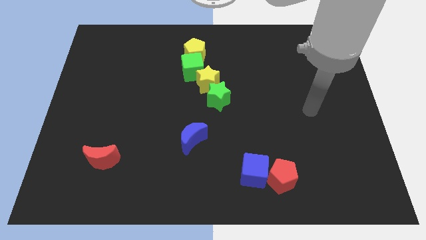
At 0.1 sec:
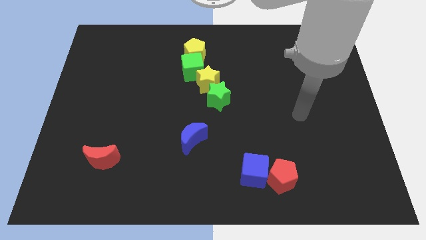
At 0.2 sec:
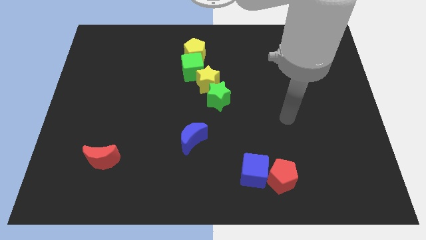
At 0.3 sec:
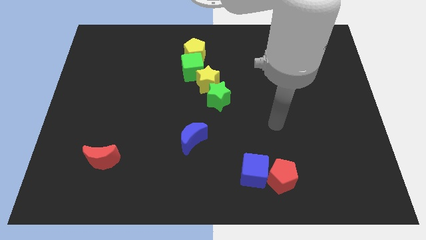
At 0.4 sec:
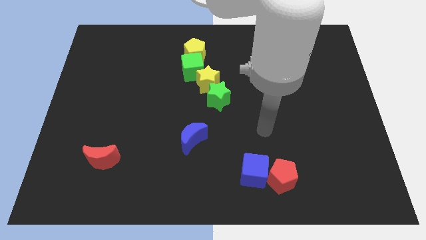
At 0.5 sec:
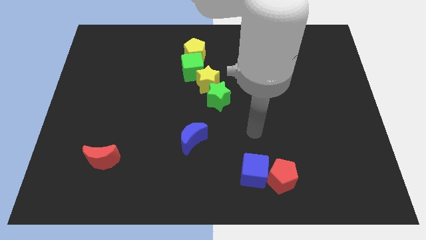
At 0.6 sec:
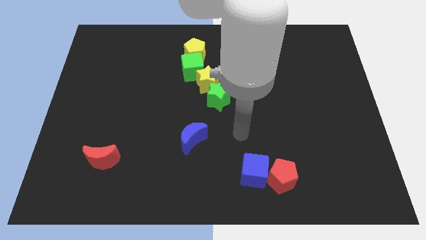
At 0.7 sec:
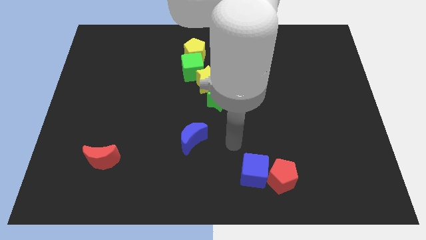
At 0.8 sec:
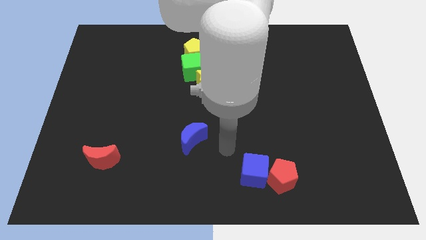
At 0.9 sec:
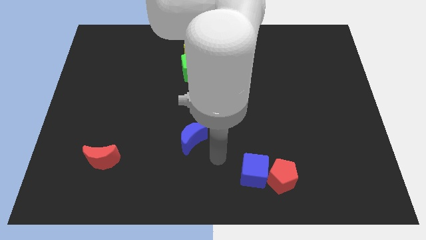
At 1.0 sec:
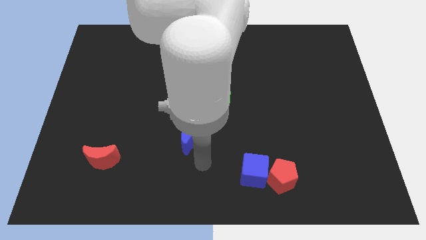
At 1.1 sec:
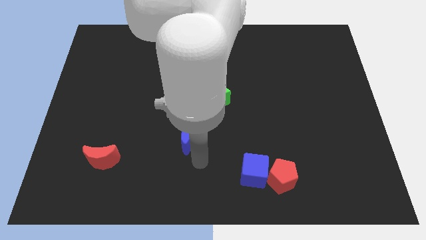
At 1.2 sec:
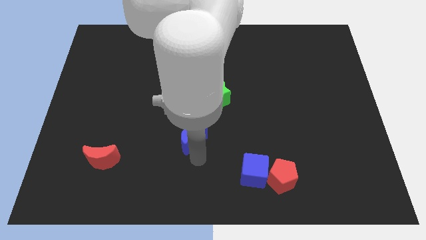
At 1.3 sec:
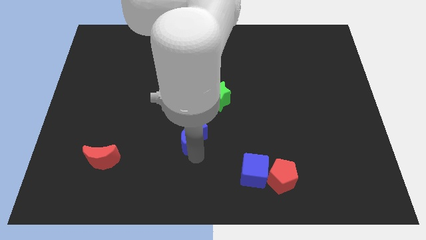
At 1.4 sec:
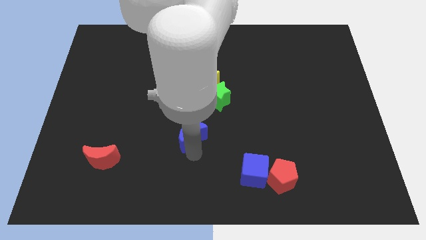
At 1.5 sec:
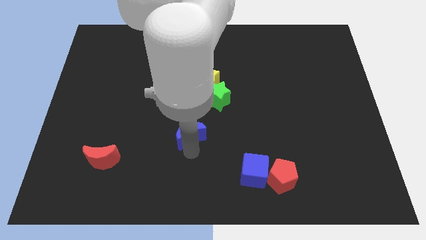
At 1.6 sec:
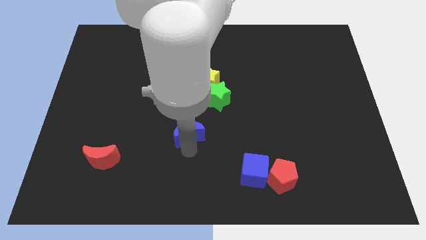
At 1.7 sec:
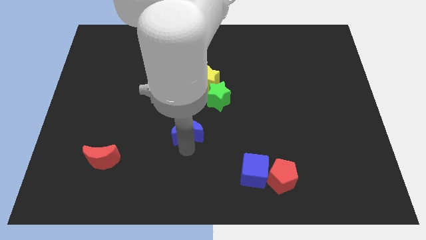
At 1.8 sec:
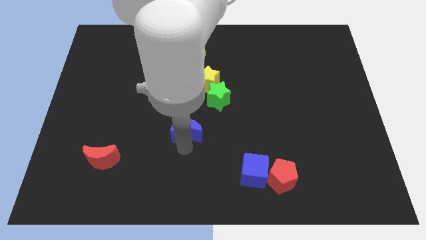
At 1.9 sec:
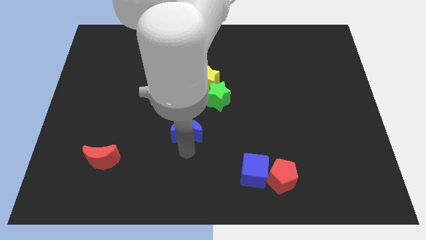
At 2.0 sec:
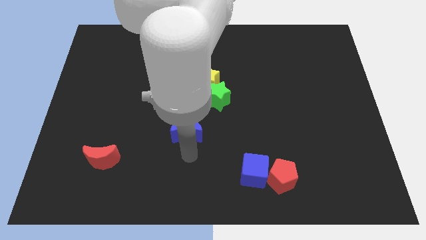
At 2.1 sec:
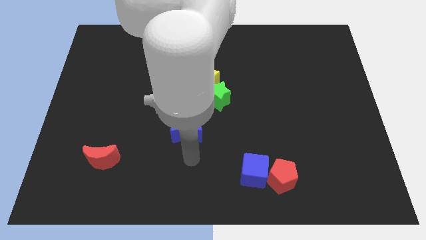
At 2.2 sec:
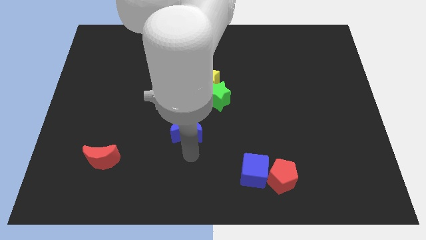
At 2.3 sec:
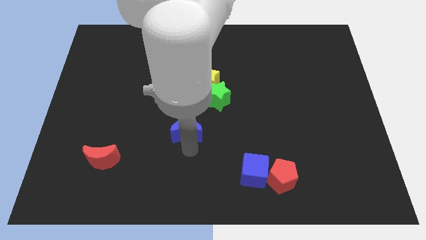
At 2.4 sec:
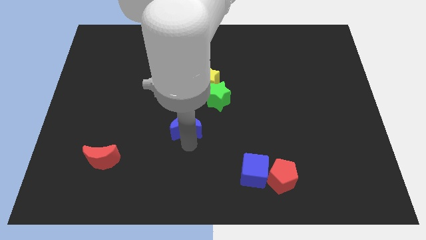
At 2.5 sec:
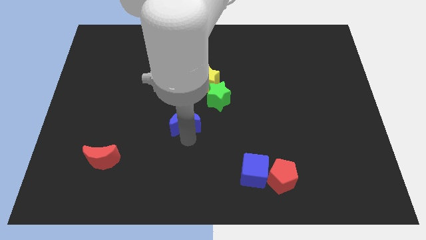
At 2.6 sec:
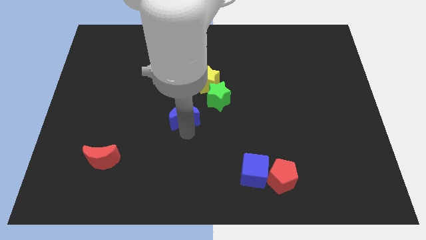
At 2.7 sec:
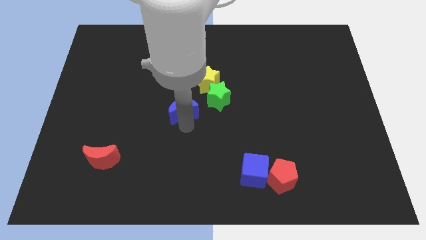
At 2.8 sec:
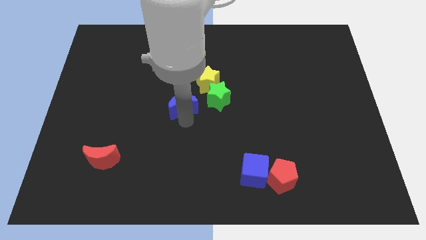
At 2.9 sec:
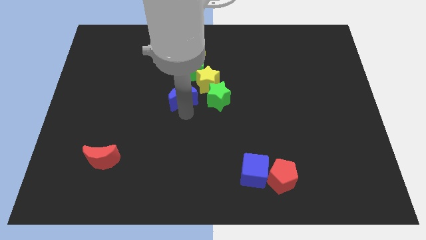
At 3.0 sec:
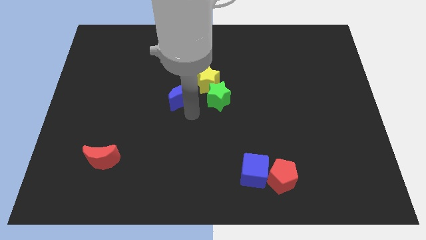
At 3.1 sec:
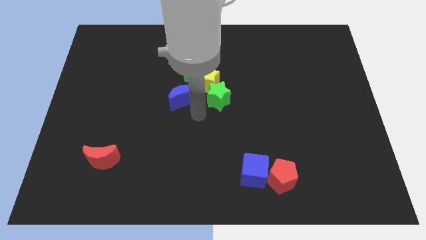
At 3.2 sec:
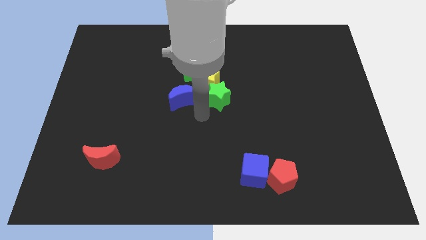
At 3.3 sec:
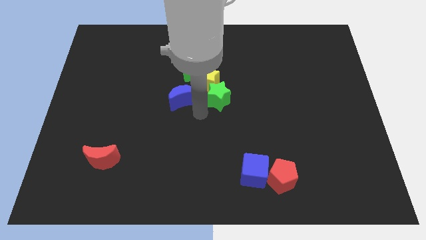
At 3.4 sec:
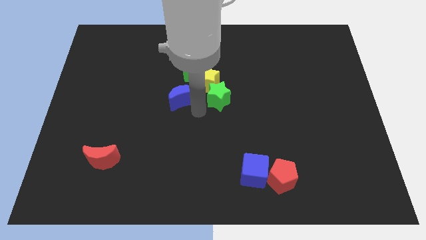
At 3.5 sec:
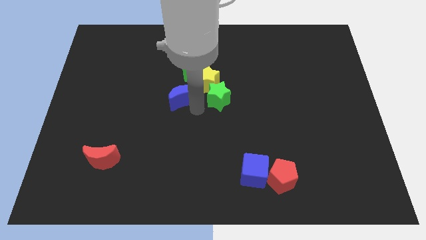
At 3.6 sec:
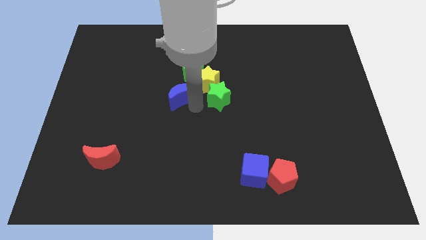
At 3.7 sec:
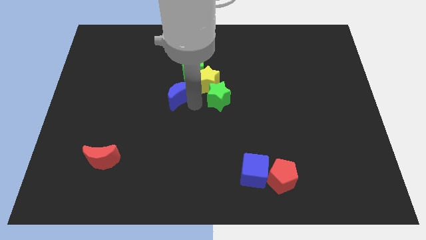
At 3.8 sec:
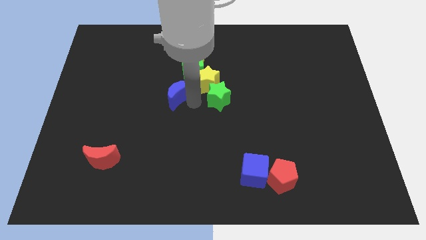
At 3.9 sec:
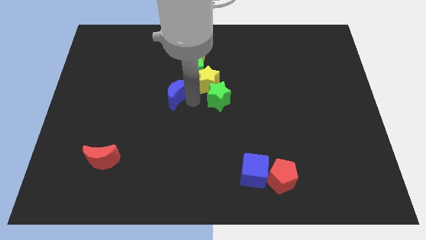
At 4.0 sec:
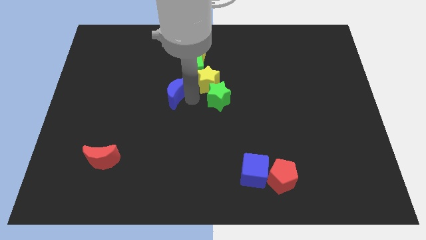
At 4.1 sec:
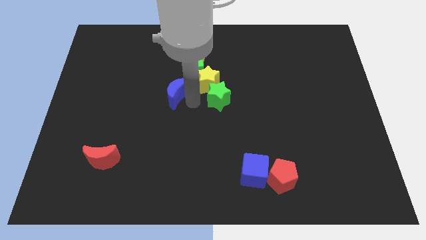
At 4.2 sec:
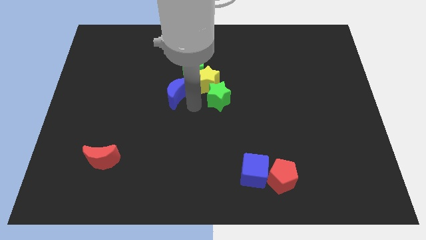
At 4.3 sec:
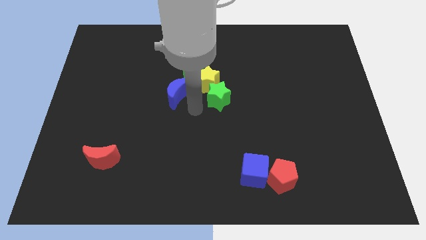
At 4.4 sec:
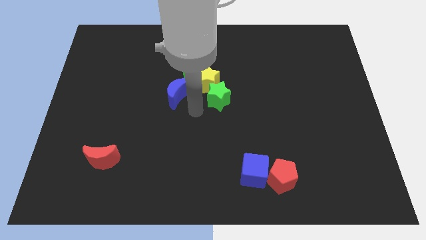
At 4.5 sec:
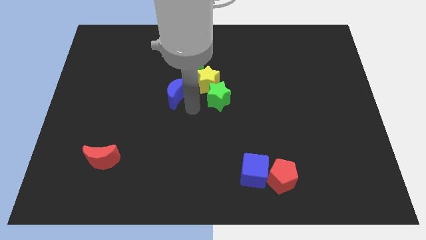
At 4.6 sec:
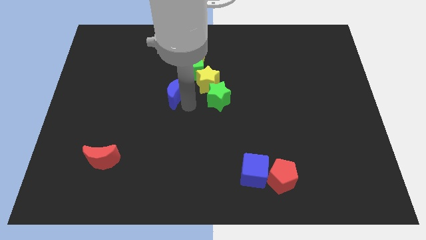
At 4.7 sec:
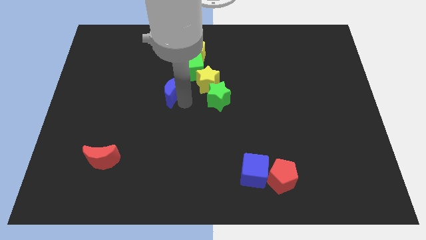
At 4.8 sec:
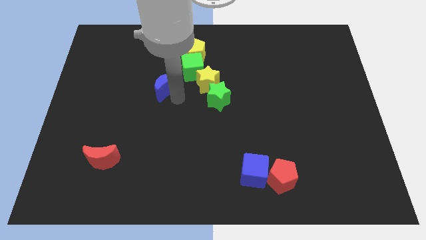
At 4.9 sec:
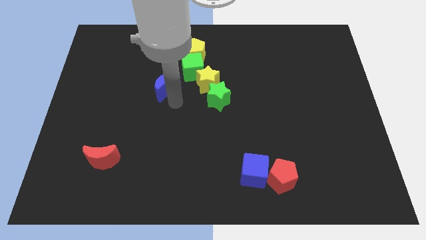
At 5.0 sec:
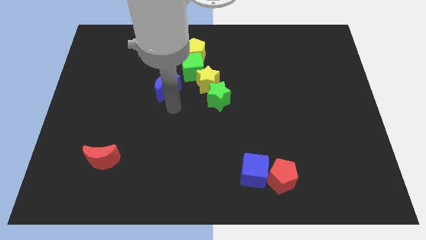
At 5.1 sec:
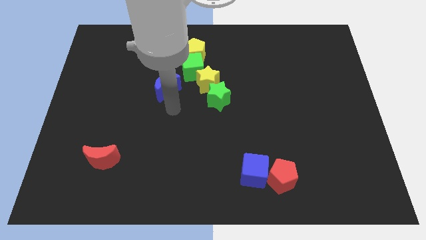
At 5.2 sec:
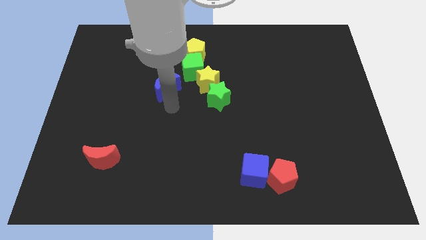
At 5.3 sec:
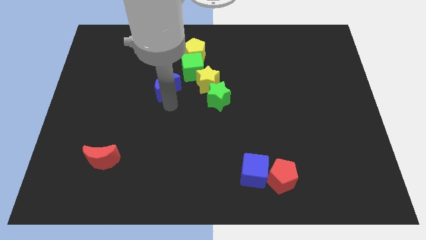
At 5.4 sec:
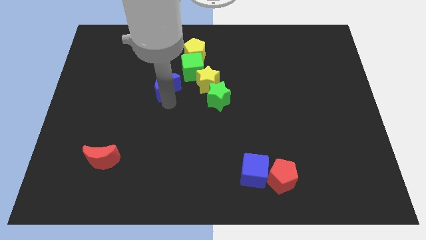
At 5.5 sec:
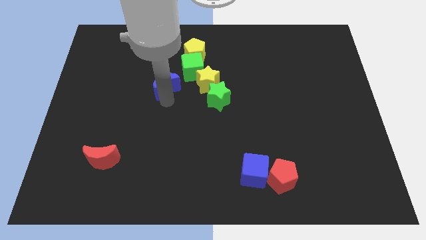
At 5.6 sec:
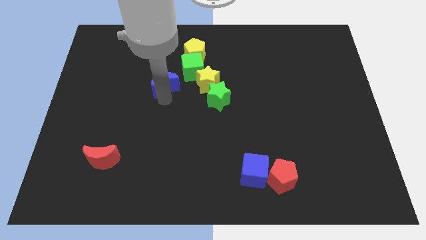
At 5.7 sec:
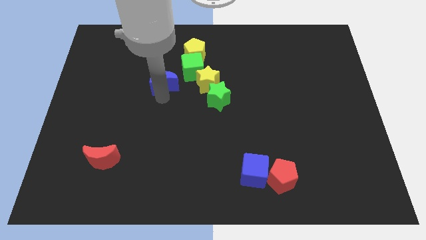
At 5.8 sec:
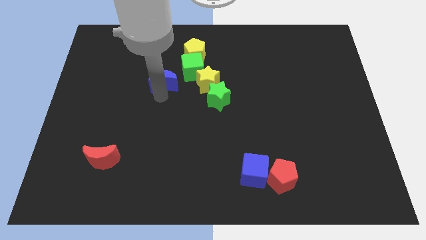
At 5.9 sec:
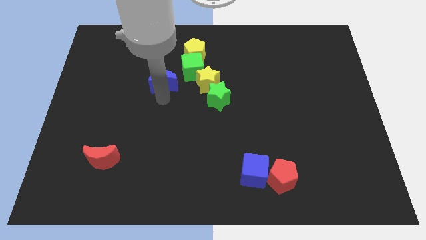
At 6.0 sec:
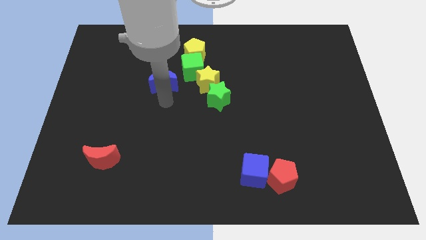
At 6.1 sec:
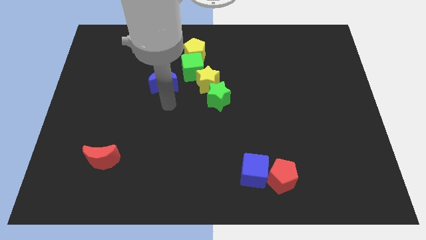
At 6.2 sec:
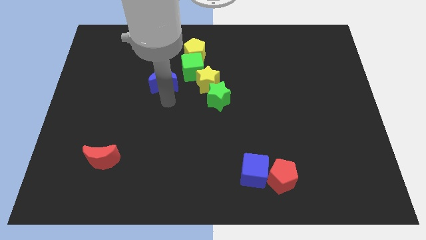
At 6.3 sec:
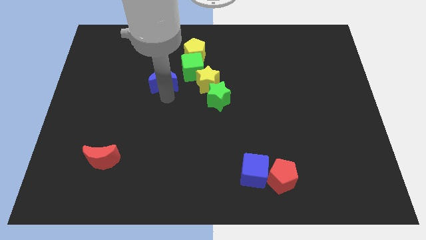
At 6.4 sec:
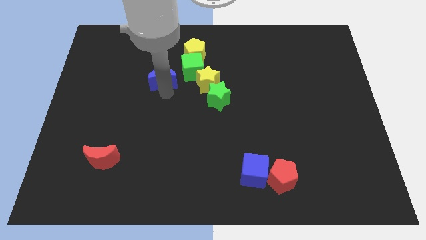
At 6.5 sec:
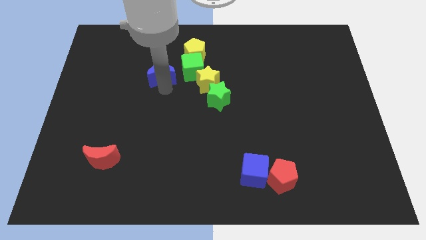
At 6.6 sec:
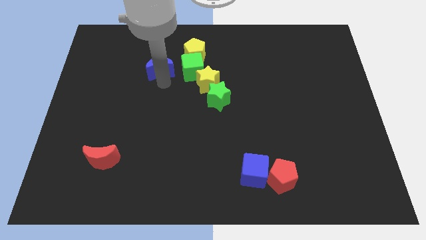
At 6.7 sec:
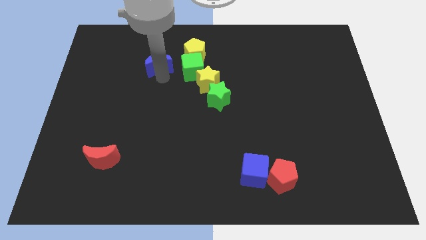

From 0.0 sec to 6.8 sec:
move the blue moon to the left of the yellow pentagon

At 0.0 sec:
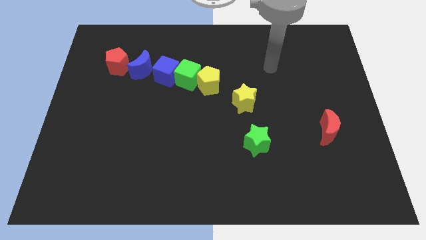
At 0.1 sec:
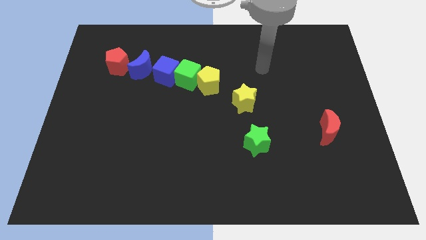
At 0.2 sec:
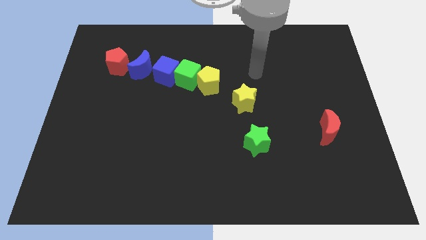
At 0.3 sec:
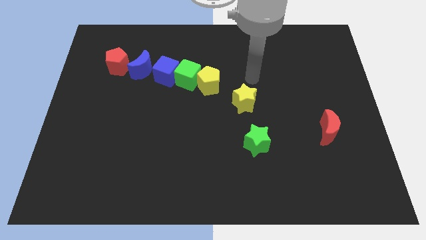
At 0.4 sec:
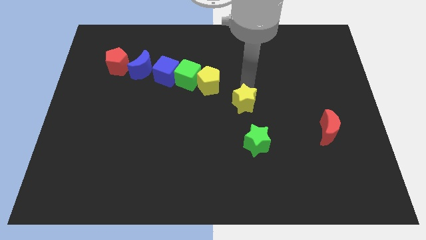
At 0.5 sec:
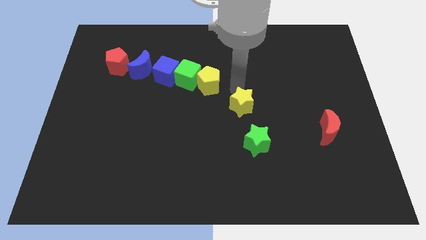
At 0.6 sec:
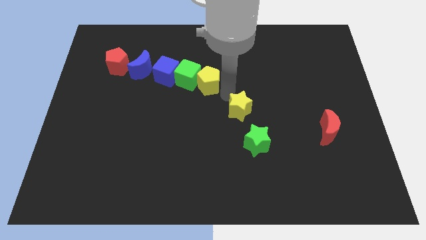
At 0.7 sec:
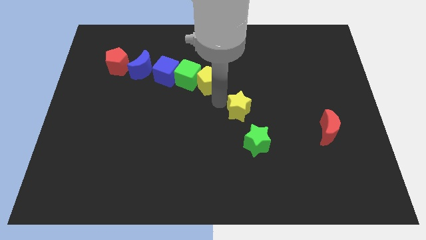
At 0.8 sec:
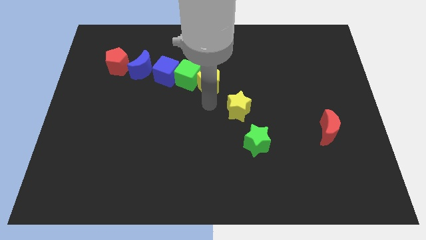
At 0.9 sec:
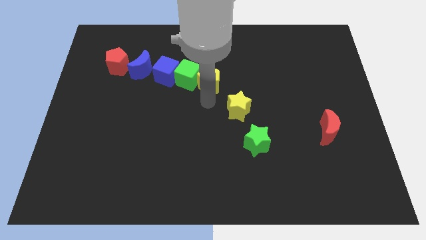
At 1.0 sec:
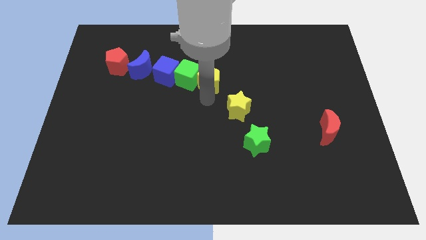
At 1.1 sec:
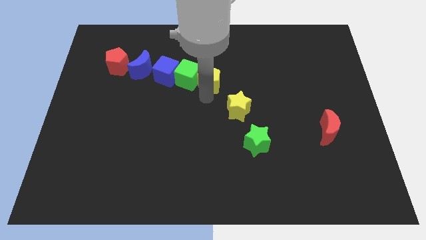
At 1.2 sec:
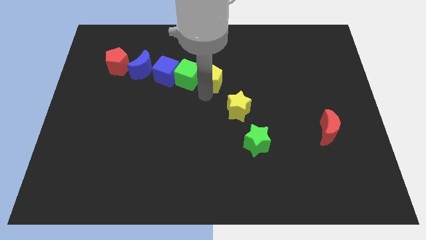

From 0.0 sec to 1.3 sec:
push the yellow pentagon to the top right side of the green cube

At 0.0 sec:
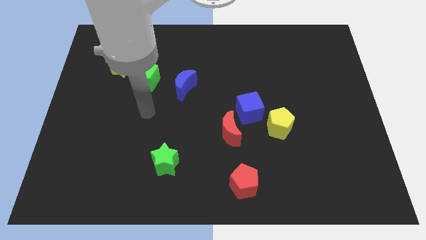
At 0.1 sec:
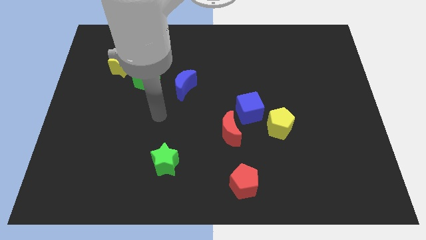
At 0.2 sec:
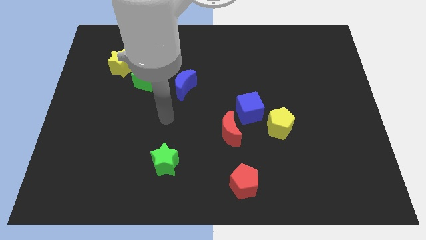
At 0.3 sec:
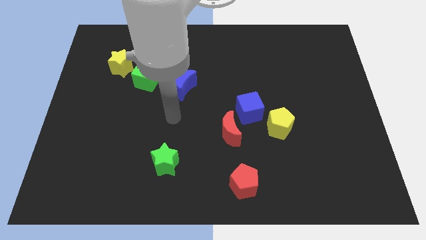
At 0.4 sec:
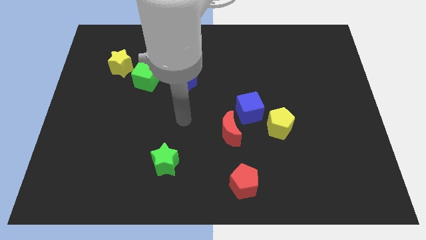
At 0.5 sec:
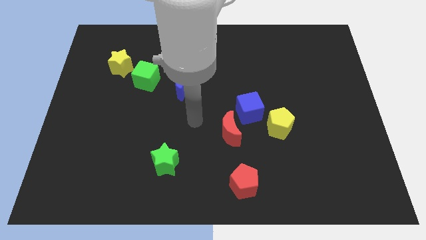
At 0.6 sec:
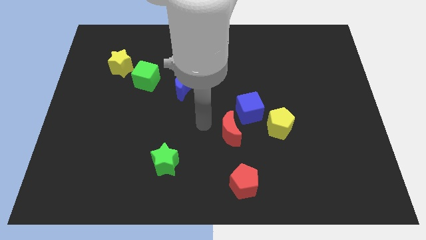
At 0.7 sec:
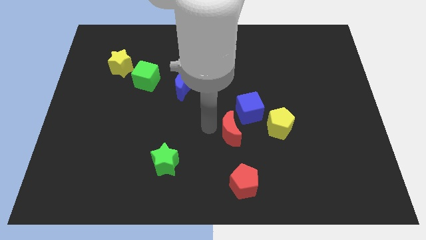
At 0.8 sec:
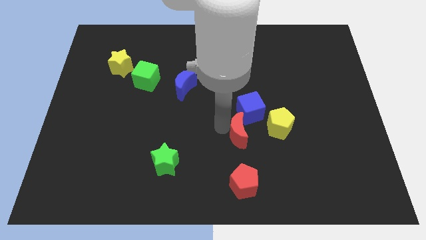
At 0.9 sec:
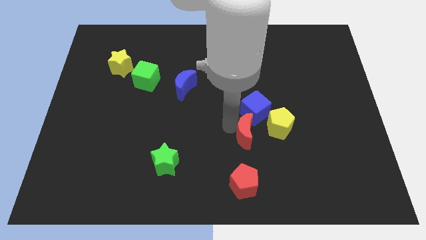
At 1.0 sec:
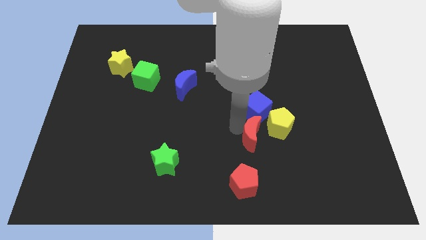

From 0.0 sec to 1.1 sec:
slide the blue cube to the top side of the yellow pentagon
